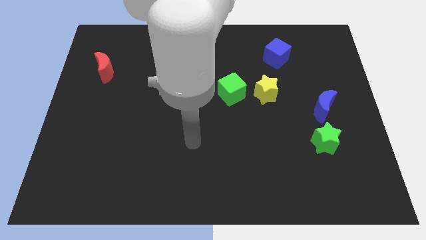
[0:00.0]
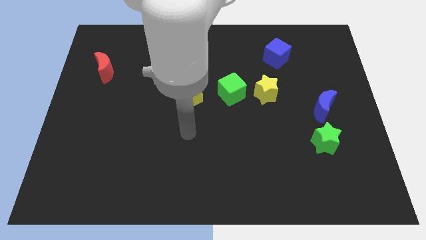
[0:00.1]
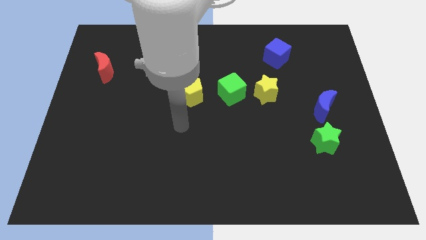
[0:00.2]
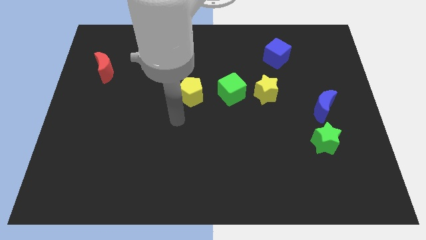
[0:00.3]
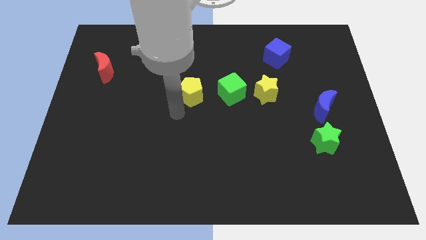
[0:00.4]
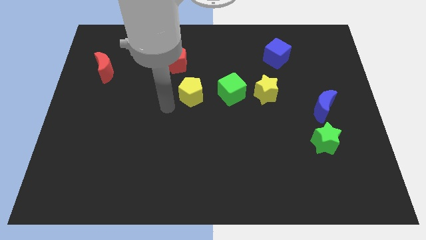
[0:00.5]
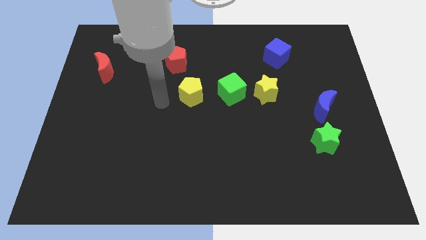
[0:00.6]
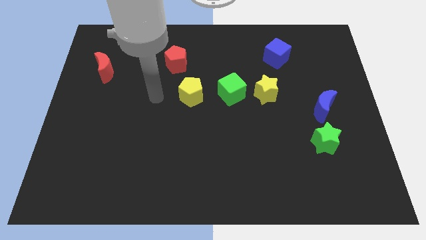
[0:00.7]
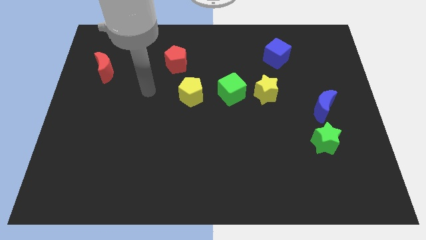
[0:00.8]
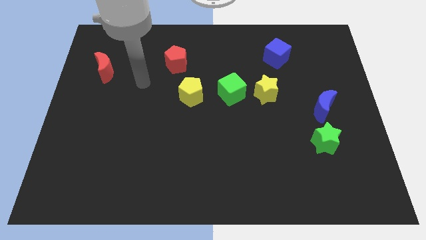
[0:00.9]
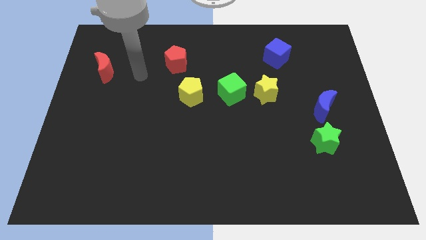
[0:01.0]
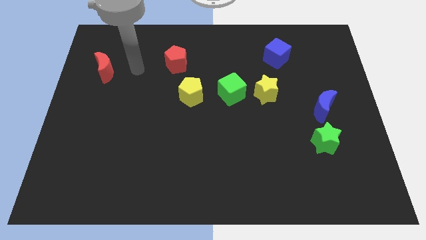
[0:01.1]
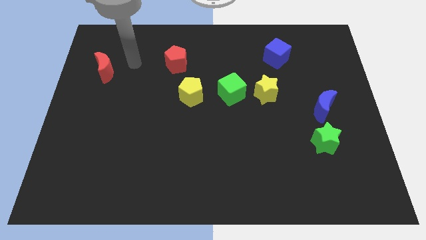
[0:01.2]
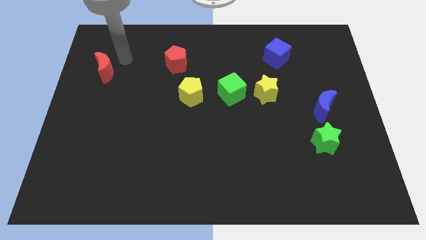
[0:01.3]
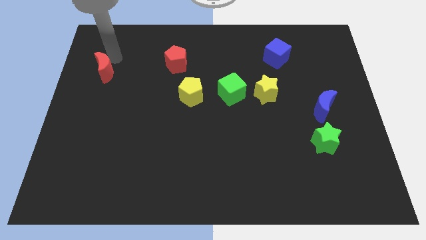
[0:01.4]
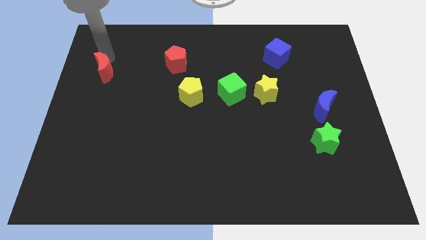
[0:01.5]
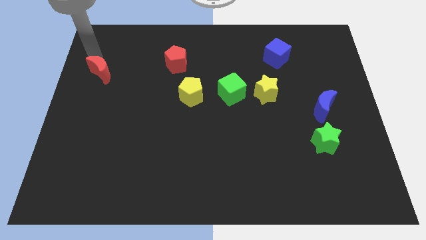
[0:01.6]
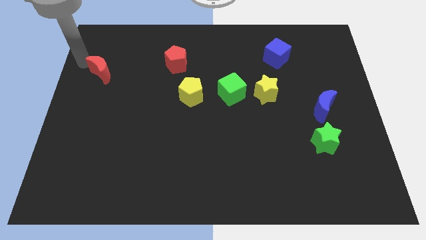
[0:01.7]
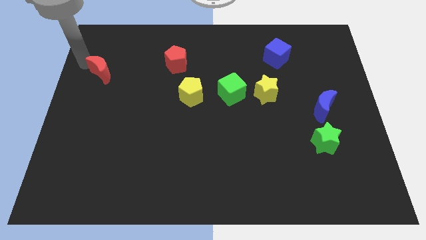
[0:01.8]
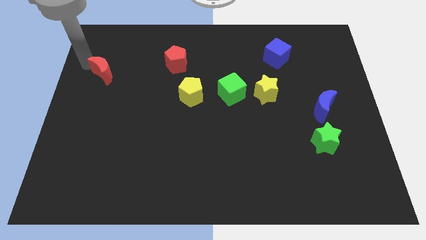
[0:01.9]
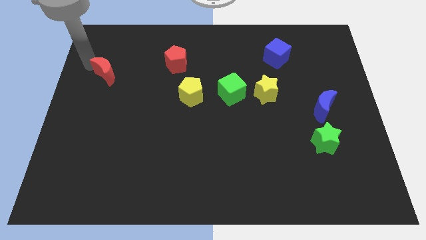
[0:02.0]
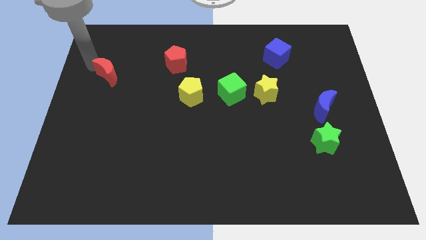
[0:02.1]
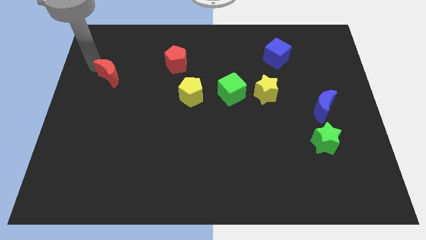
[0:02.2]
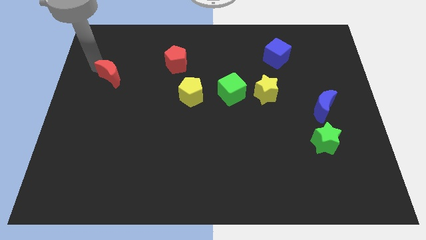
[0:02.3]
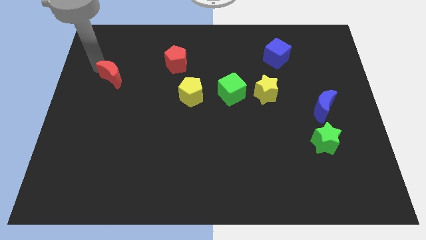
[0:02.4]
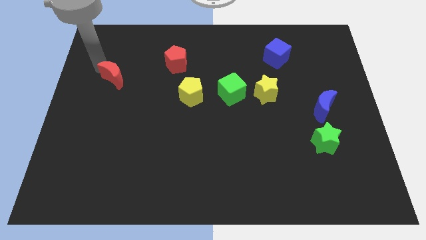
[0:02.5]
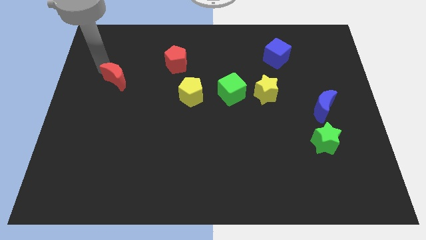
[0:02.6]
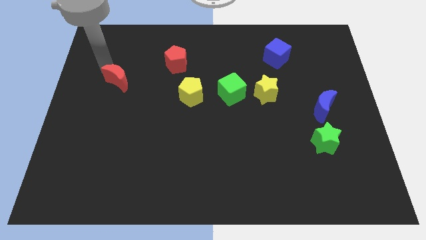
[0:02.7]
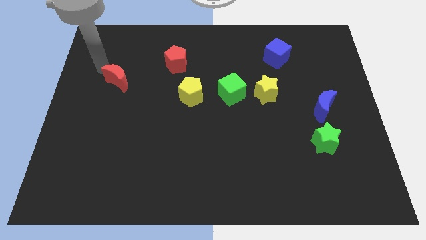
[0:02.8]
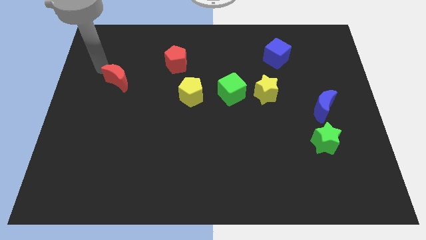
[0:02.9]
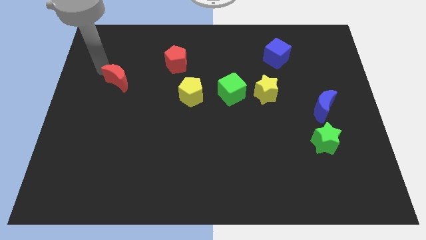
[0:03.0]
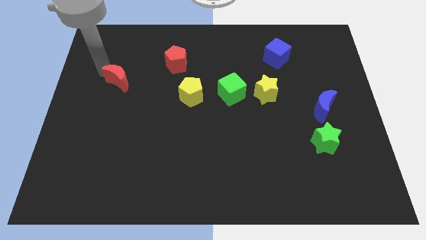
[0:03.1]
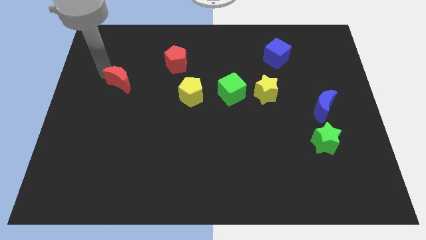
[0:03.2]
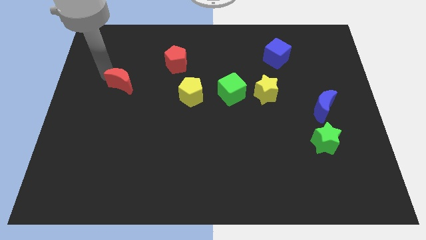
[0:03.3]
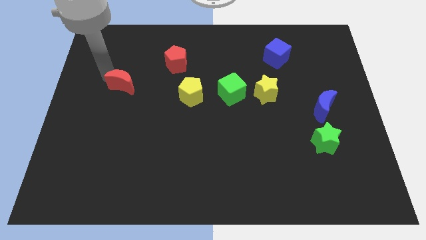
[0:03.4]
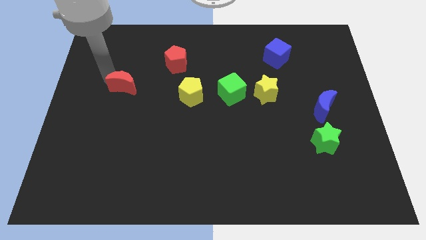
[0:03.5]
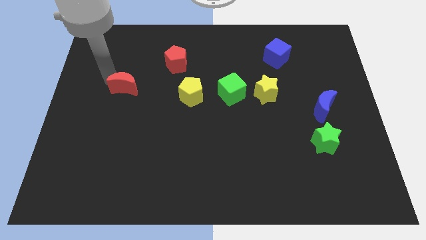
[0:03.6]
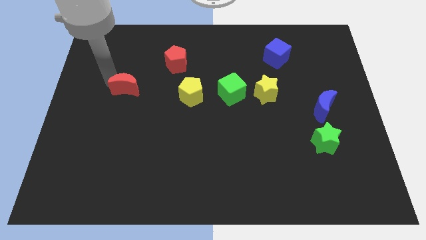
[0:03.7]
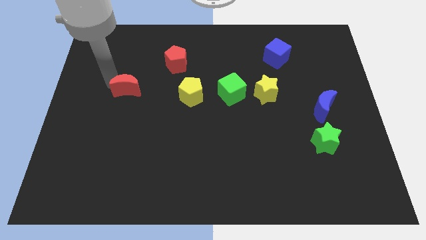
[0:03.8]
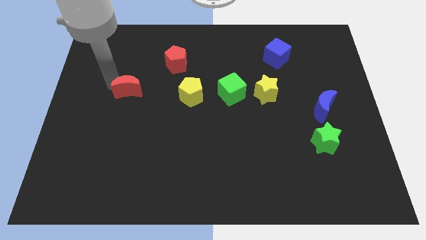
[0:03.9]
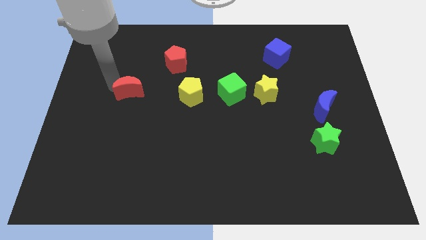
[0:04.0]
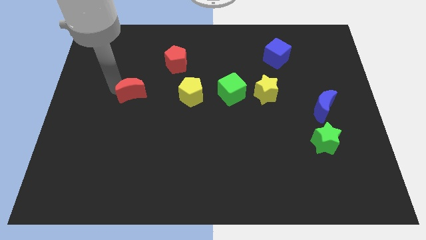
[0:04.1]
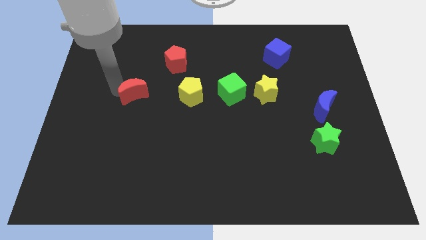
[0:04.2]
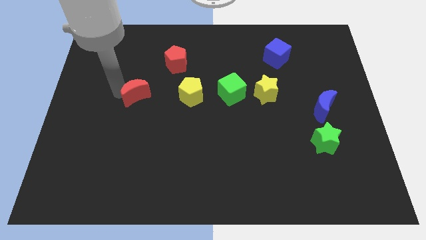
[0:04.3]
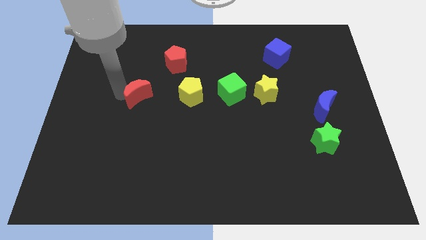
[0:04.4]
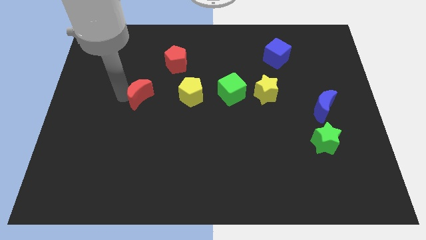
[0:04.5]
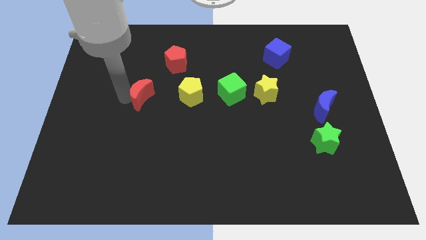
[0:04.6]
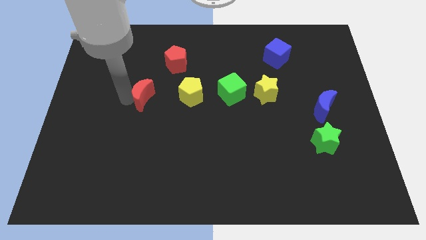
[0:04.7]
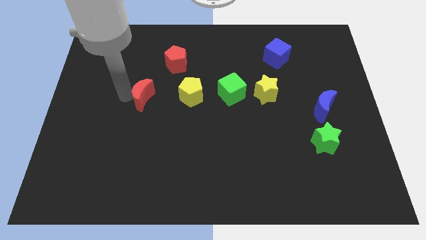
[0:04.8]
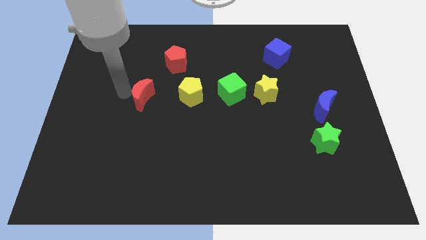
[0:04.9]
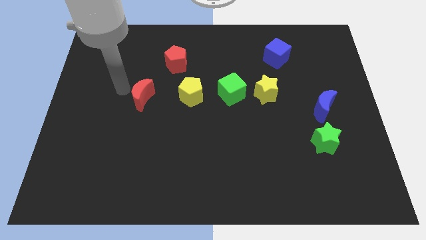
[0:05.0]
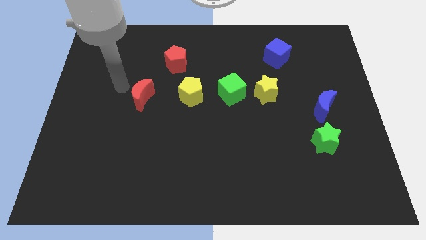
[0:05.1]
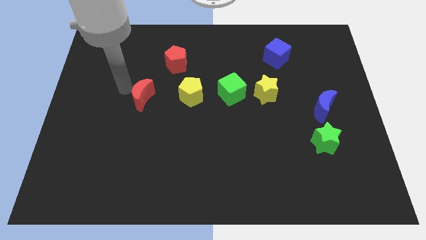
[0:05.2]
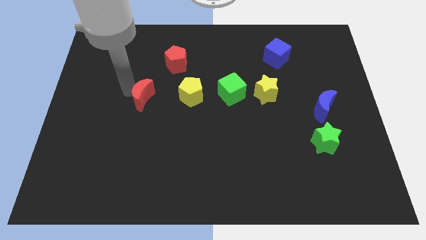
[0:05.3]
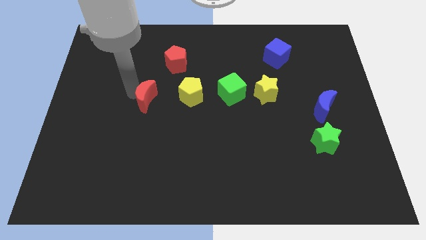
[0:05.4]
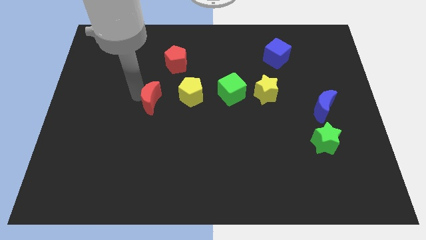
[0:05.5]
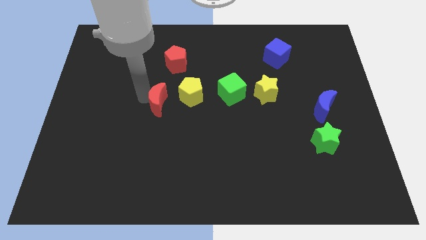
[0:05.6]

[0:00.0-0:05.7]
put the red moon to the bottom left side of the yellow pentagon

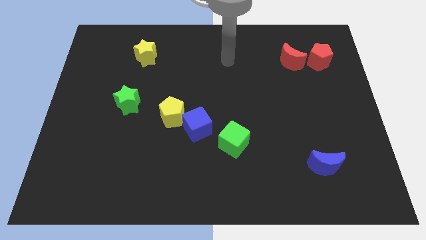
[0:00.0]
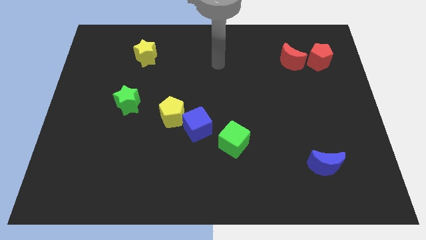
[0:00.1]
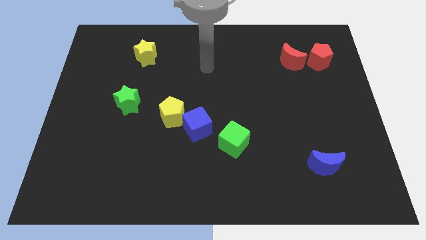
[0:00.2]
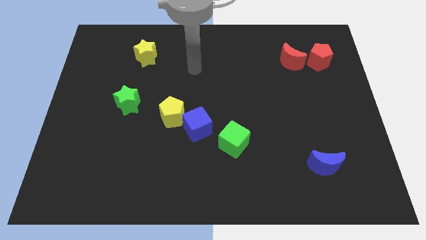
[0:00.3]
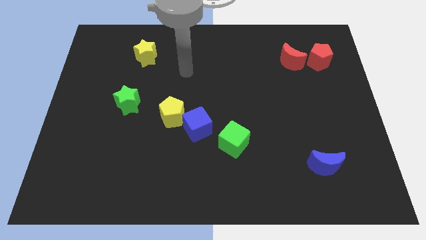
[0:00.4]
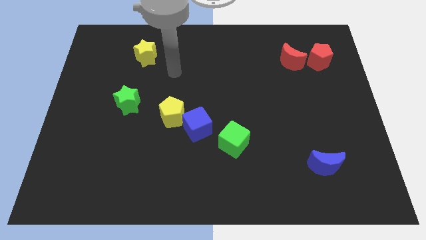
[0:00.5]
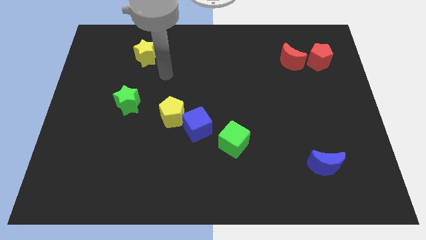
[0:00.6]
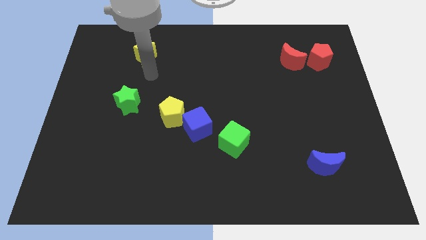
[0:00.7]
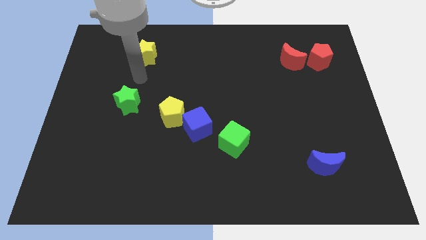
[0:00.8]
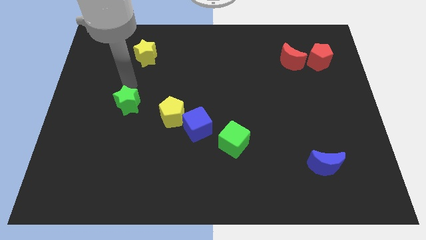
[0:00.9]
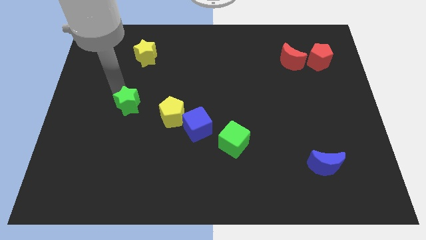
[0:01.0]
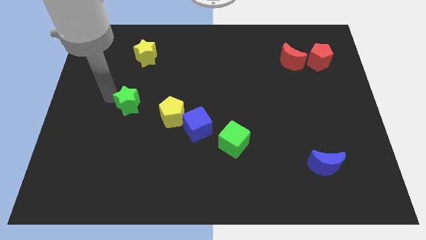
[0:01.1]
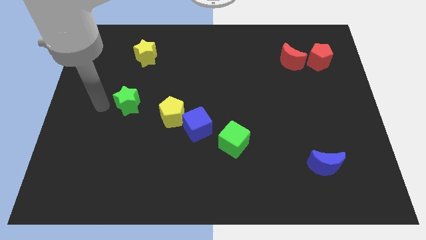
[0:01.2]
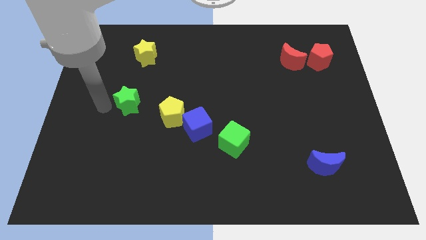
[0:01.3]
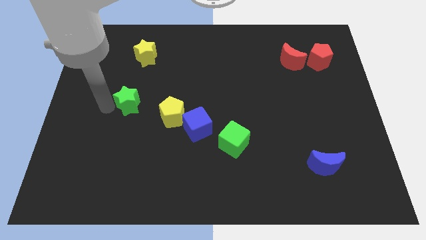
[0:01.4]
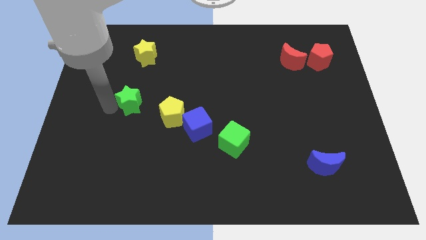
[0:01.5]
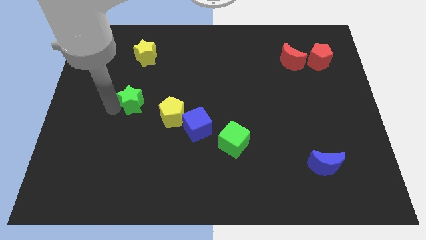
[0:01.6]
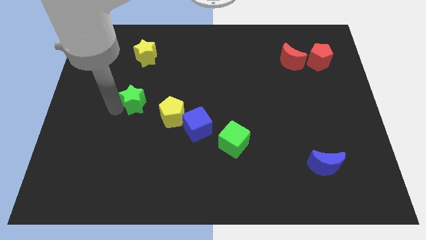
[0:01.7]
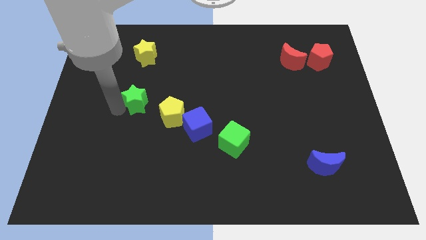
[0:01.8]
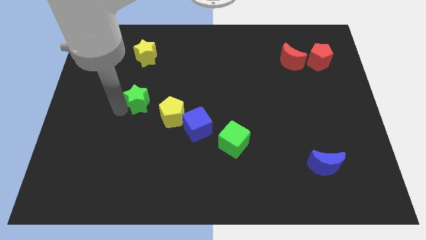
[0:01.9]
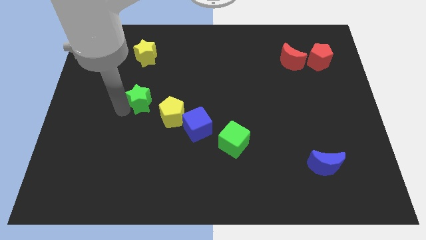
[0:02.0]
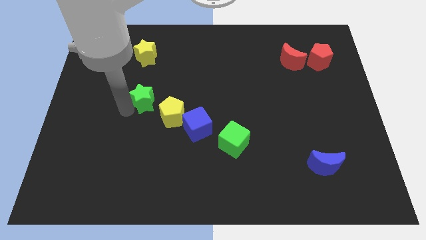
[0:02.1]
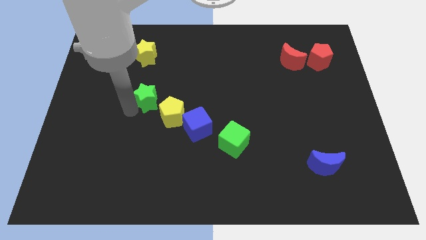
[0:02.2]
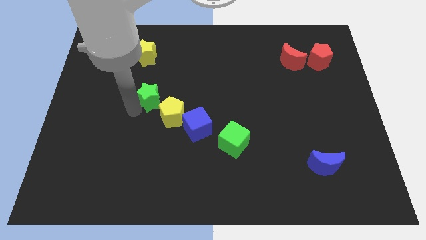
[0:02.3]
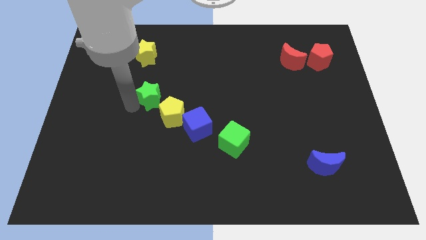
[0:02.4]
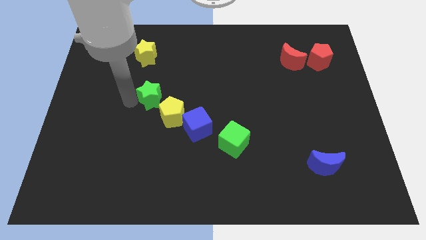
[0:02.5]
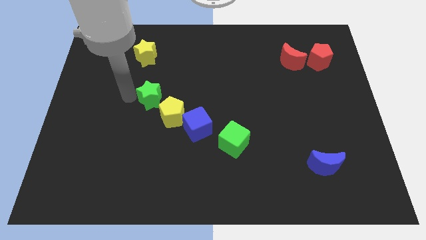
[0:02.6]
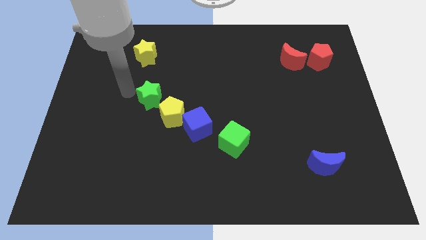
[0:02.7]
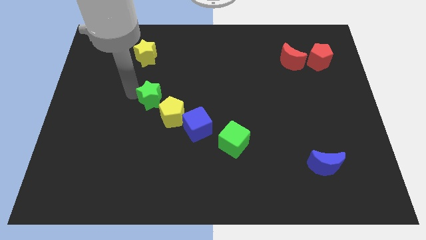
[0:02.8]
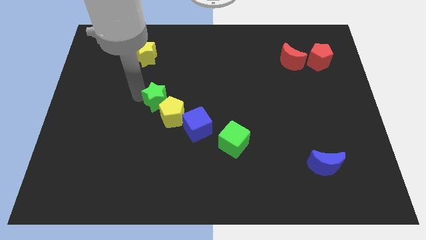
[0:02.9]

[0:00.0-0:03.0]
move the green star to the top left side of the blue cube
